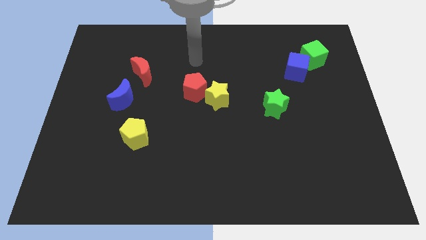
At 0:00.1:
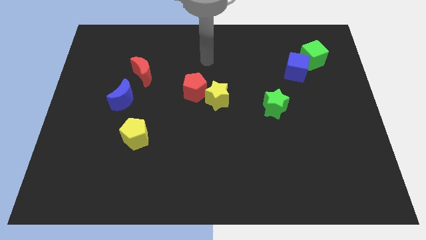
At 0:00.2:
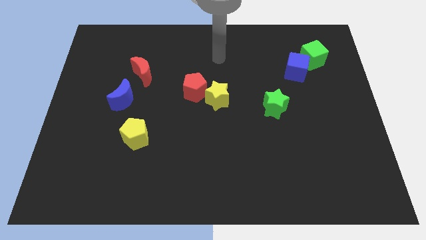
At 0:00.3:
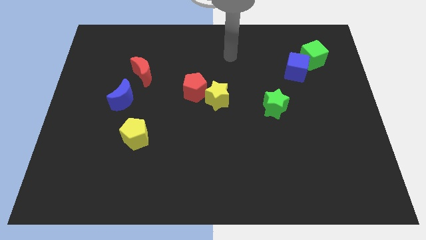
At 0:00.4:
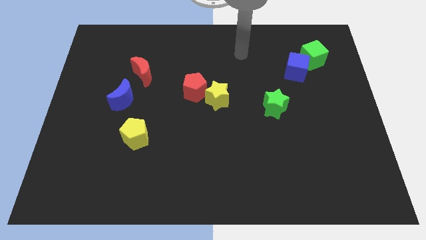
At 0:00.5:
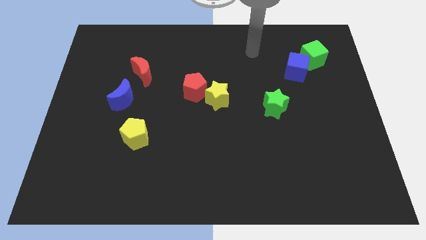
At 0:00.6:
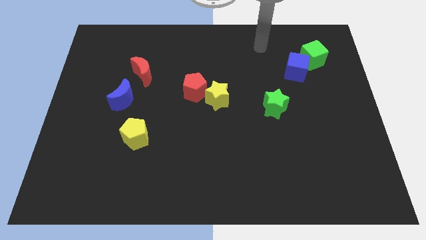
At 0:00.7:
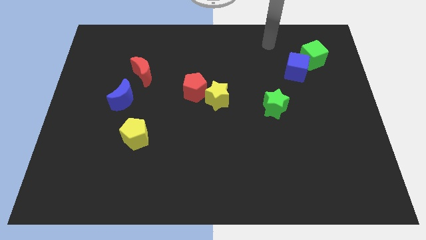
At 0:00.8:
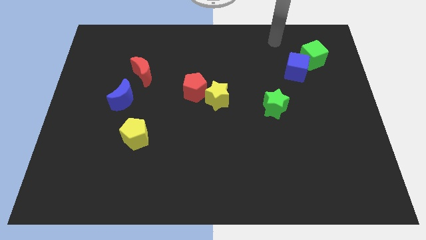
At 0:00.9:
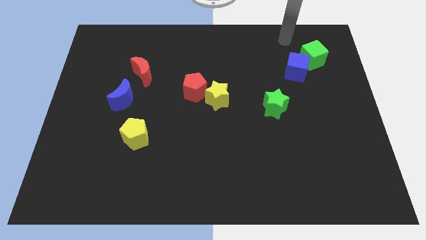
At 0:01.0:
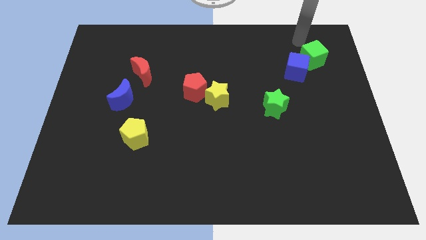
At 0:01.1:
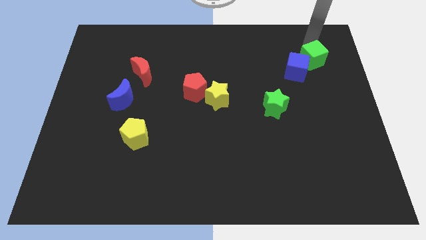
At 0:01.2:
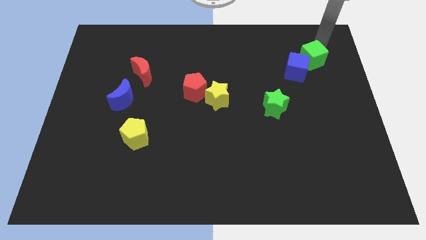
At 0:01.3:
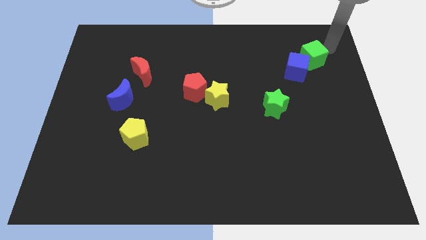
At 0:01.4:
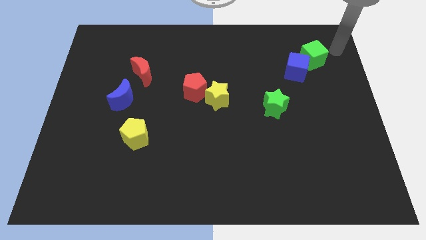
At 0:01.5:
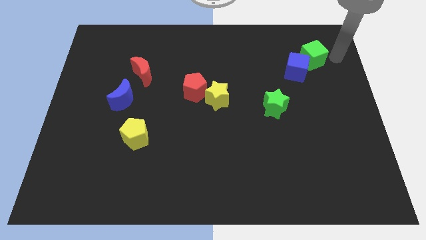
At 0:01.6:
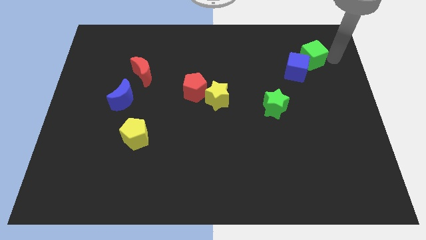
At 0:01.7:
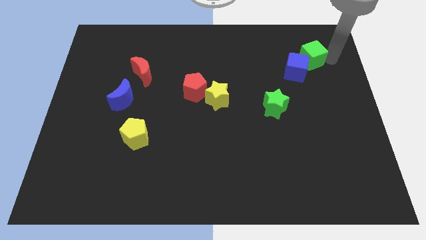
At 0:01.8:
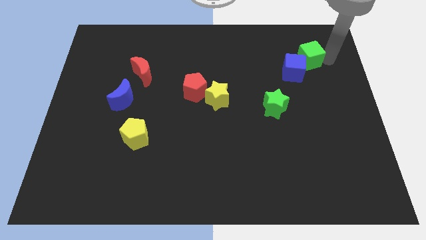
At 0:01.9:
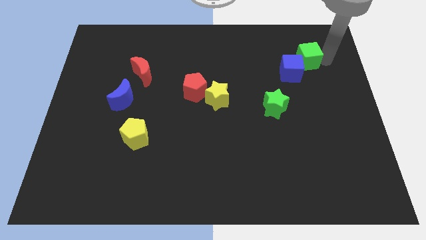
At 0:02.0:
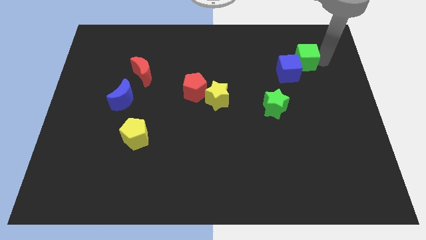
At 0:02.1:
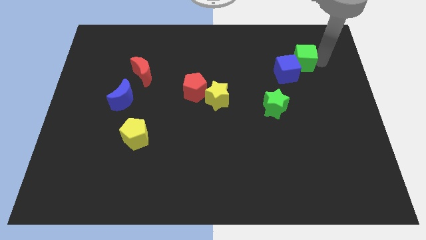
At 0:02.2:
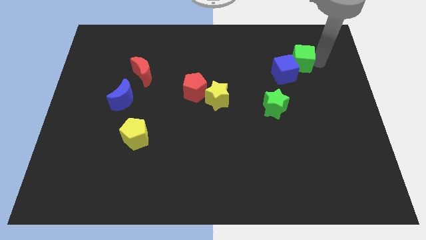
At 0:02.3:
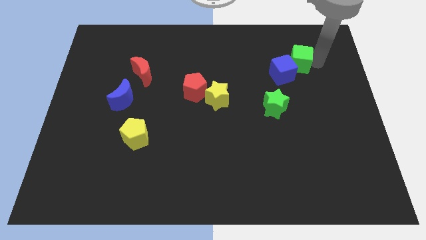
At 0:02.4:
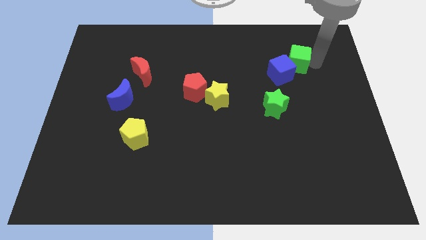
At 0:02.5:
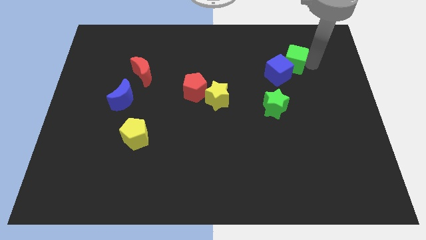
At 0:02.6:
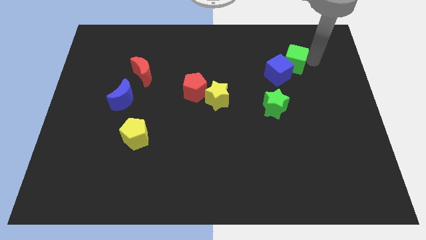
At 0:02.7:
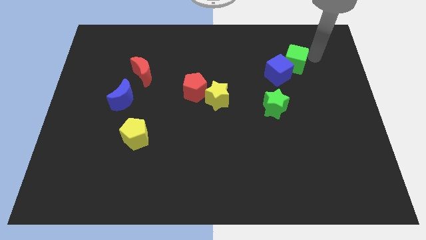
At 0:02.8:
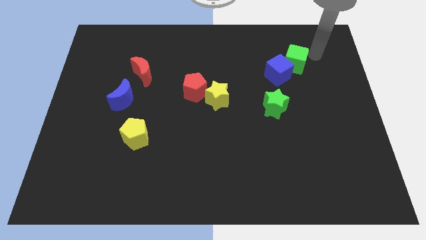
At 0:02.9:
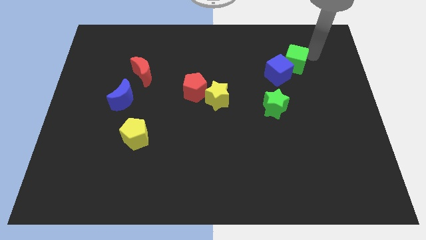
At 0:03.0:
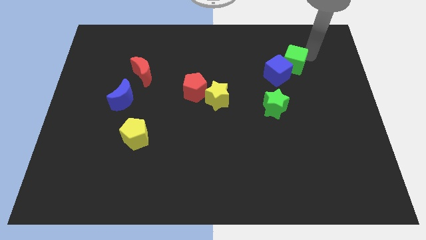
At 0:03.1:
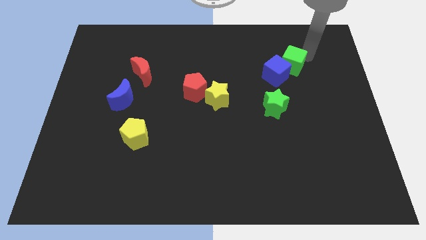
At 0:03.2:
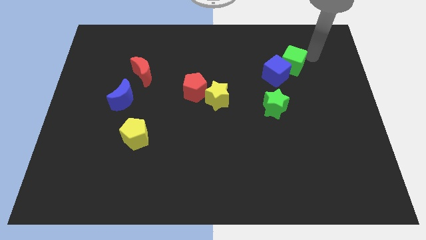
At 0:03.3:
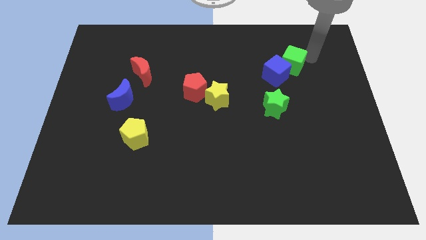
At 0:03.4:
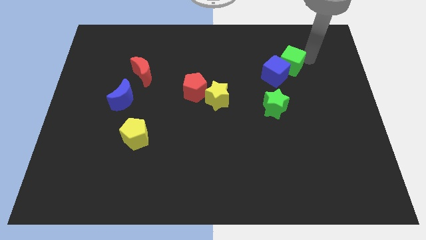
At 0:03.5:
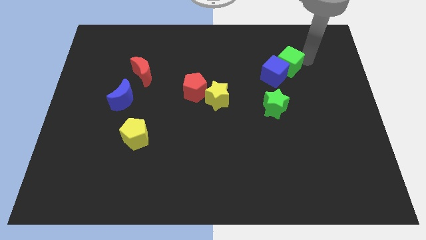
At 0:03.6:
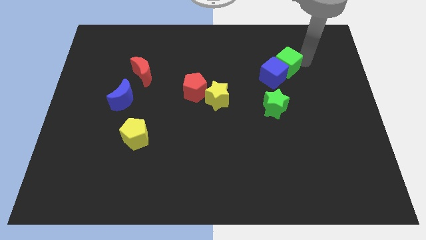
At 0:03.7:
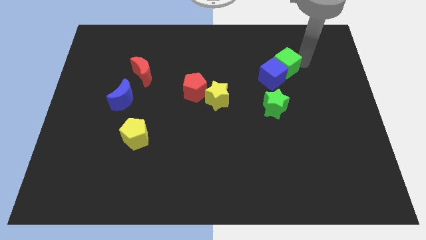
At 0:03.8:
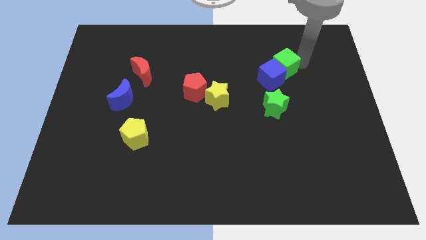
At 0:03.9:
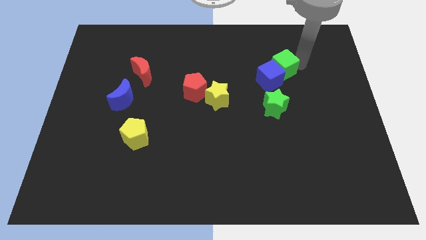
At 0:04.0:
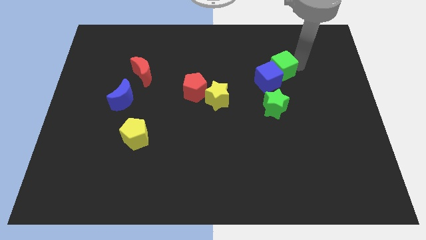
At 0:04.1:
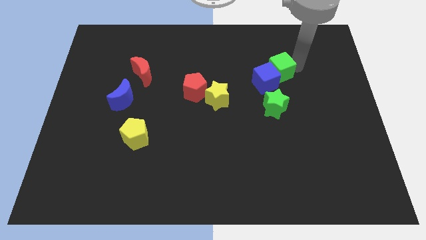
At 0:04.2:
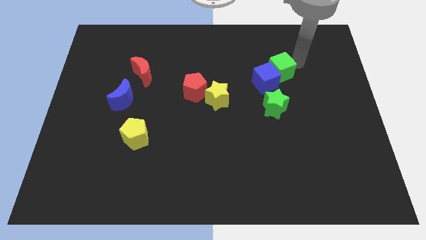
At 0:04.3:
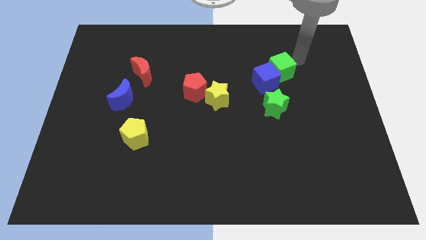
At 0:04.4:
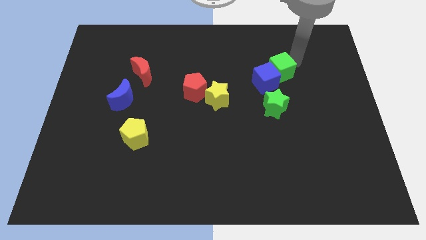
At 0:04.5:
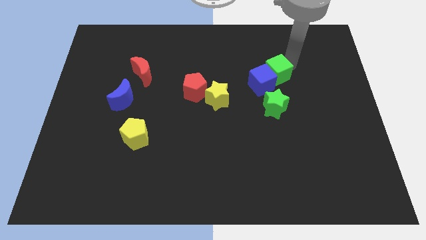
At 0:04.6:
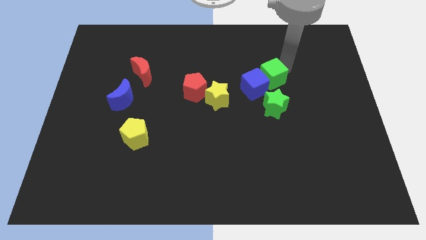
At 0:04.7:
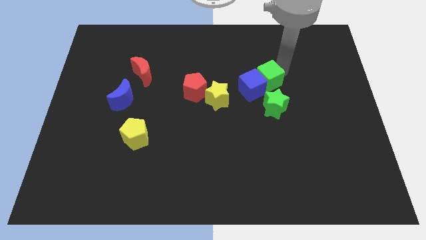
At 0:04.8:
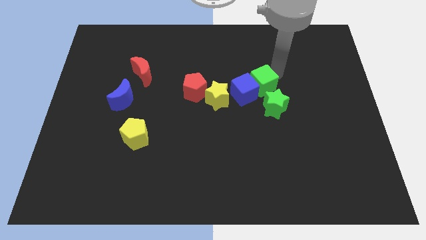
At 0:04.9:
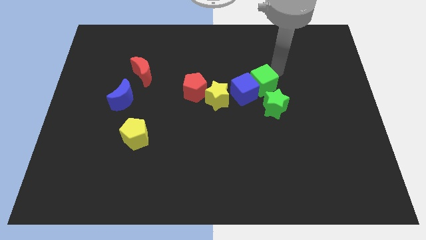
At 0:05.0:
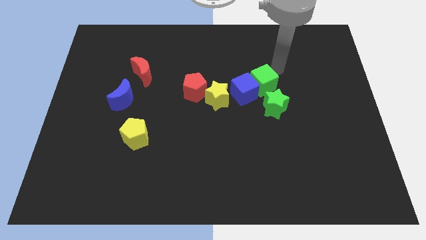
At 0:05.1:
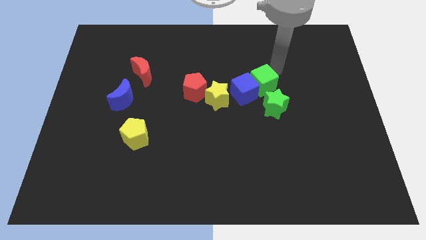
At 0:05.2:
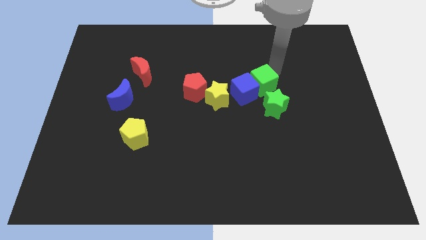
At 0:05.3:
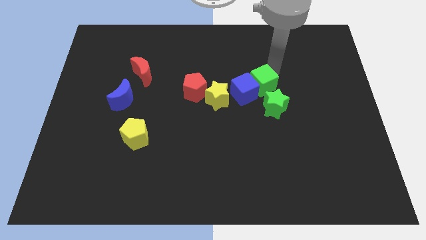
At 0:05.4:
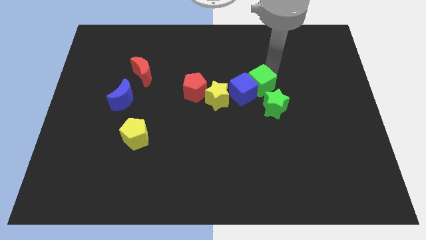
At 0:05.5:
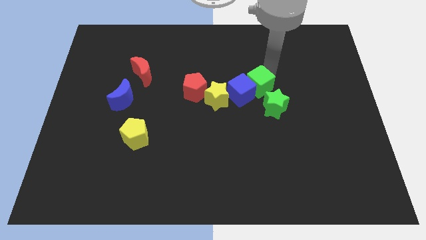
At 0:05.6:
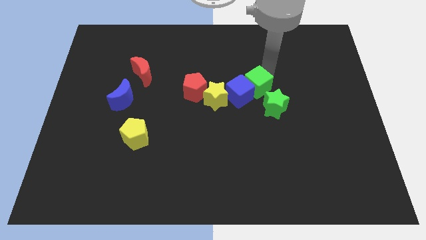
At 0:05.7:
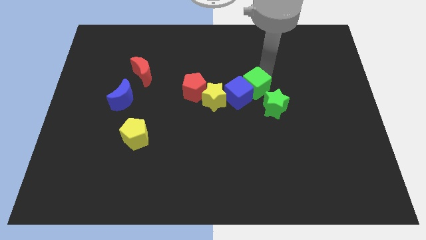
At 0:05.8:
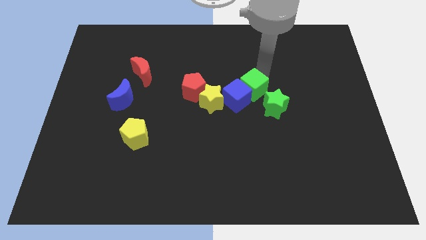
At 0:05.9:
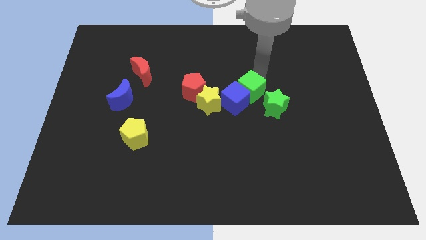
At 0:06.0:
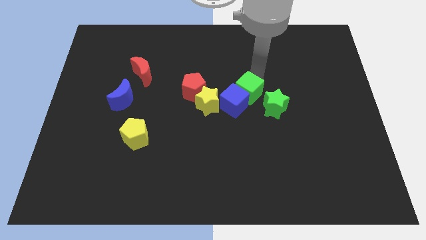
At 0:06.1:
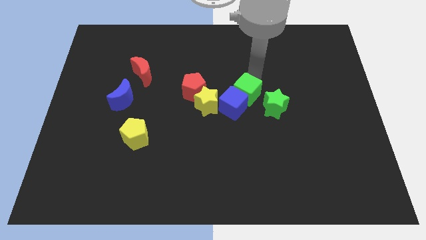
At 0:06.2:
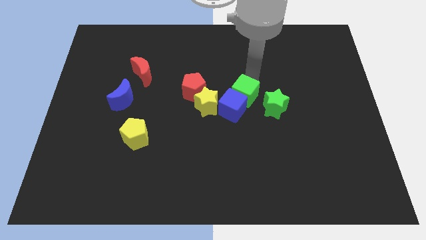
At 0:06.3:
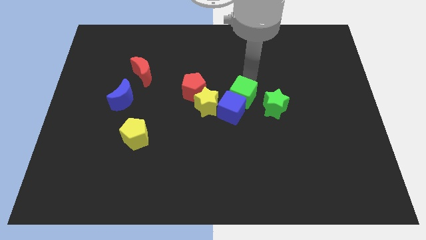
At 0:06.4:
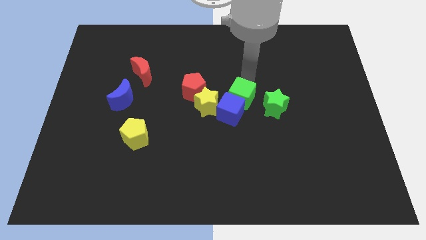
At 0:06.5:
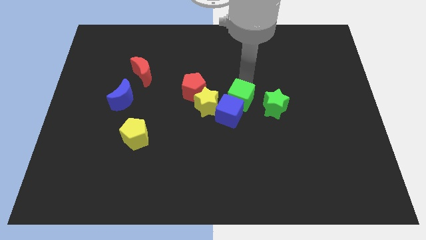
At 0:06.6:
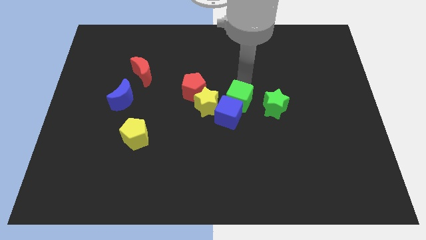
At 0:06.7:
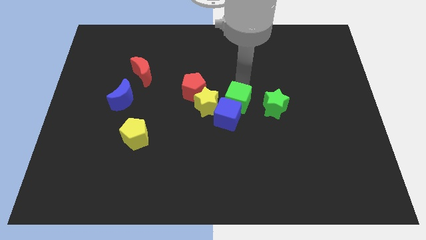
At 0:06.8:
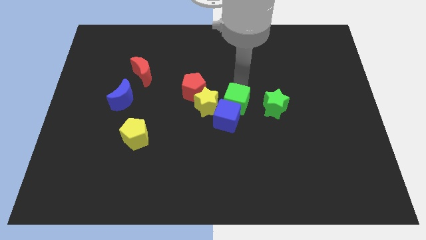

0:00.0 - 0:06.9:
move the green cube to the bottom right of the red pentagon

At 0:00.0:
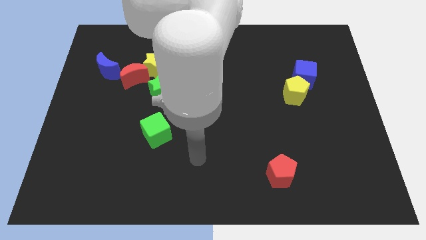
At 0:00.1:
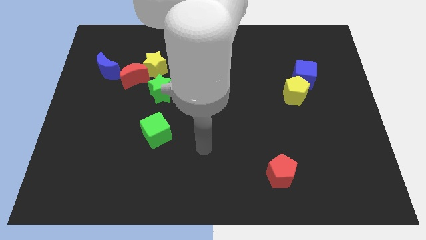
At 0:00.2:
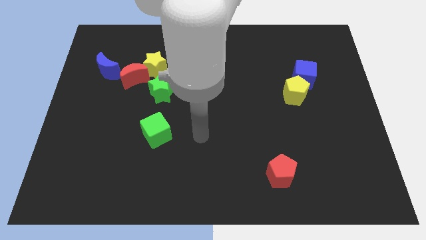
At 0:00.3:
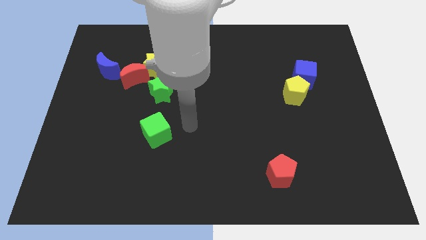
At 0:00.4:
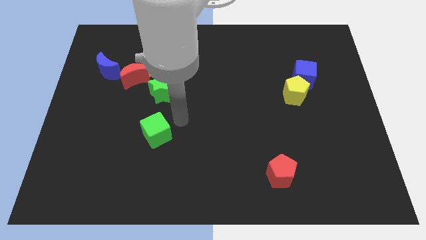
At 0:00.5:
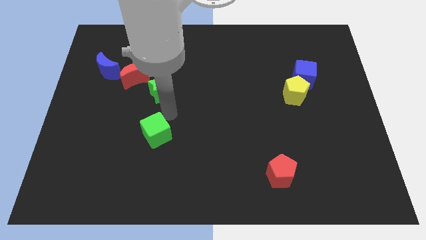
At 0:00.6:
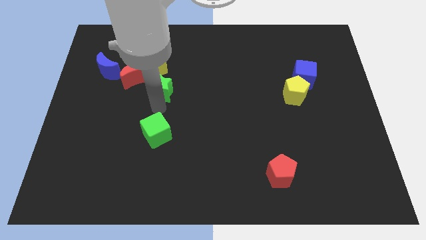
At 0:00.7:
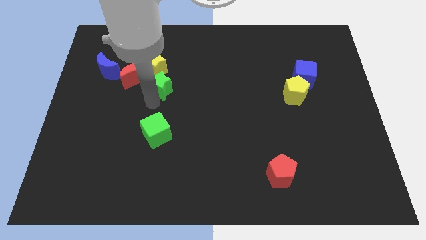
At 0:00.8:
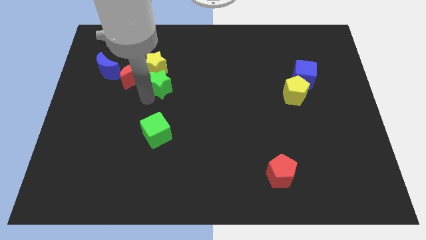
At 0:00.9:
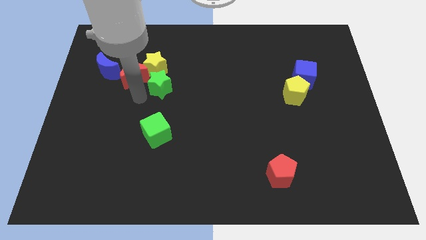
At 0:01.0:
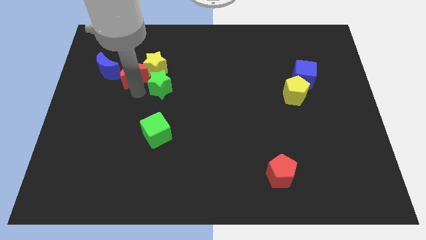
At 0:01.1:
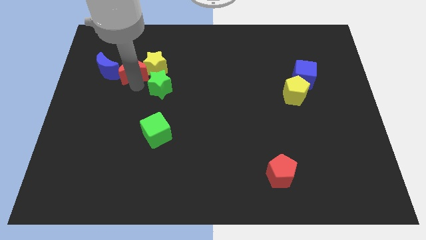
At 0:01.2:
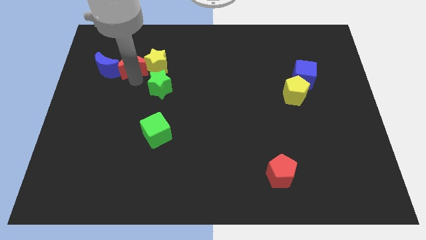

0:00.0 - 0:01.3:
push the red moon to the top right side of the blue moon
